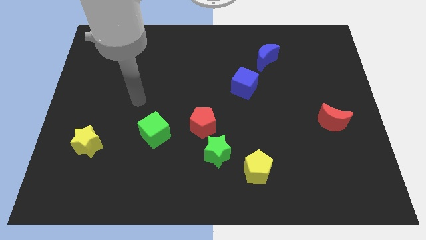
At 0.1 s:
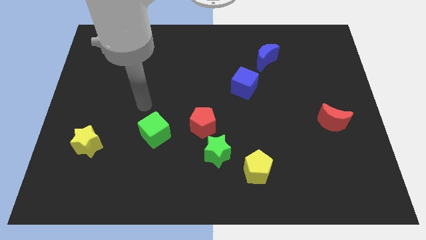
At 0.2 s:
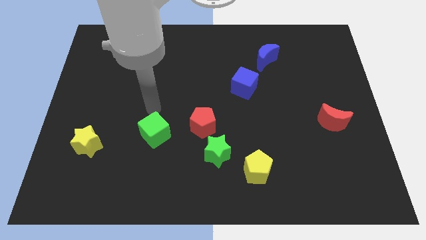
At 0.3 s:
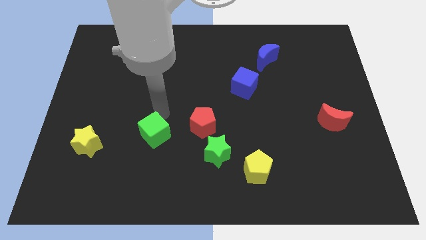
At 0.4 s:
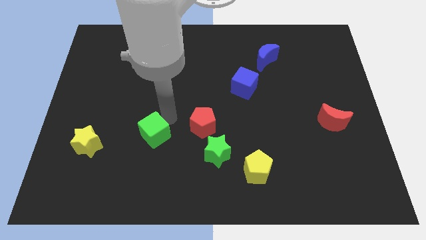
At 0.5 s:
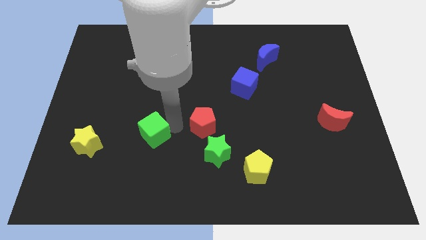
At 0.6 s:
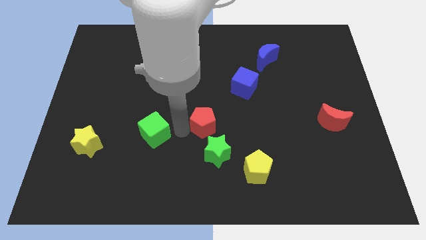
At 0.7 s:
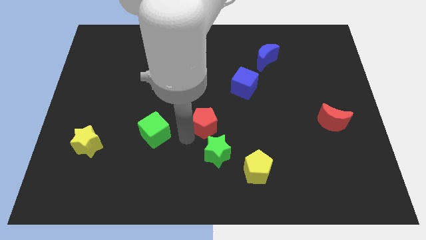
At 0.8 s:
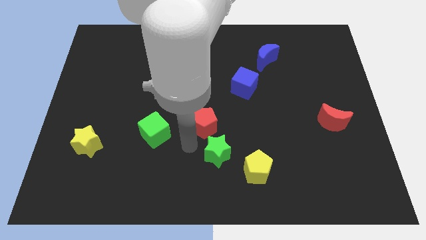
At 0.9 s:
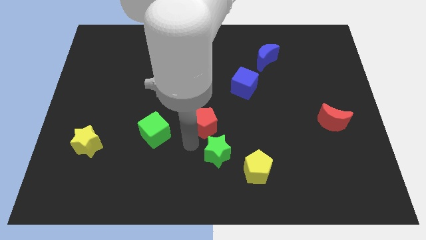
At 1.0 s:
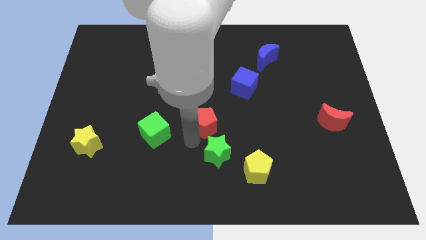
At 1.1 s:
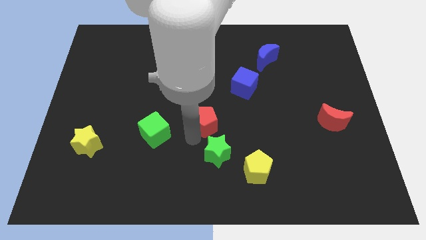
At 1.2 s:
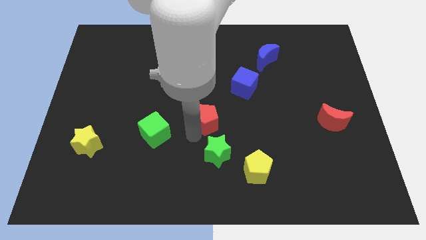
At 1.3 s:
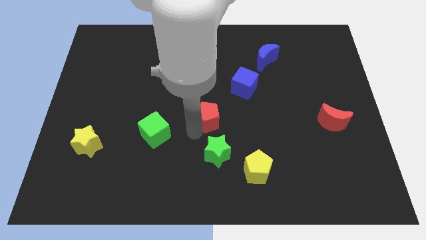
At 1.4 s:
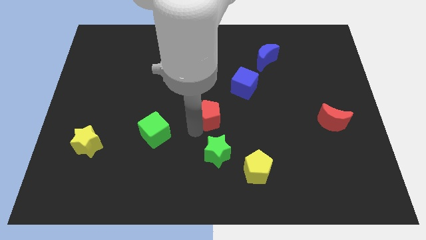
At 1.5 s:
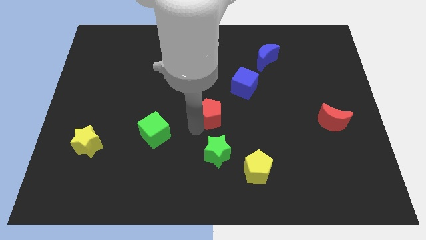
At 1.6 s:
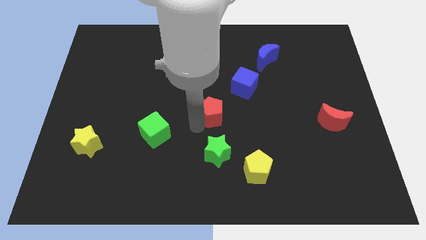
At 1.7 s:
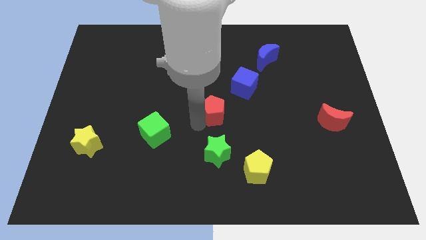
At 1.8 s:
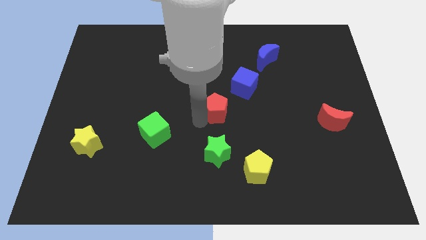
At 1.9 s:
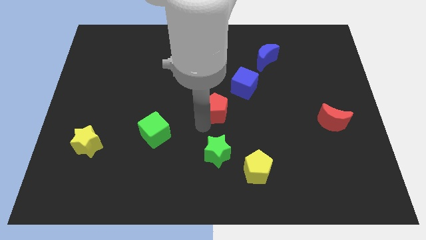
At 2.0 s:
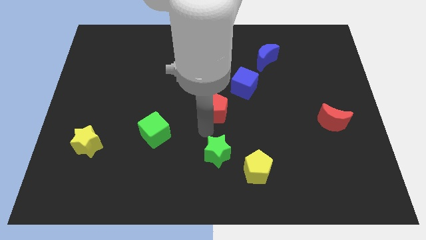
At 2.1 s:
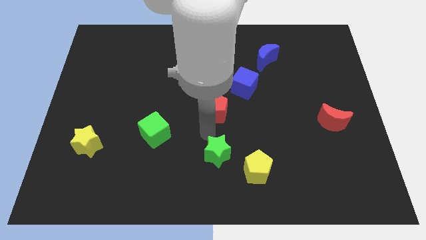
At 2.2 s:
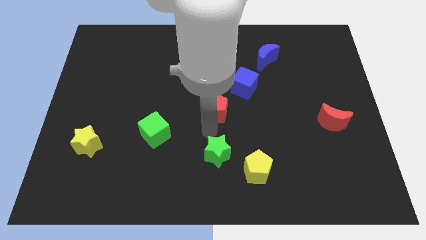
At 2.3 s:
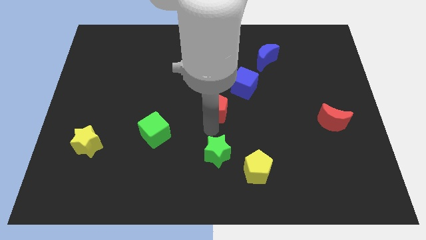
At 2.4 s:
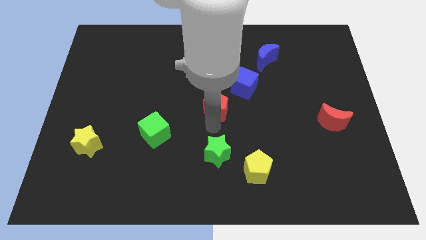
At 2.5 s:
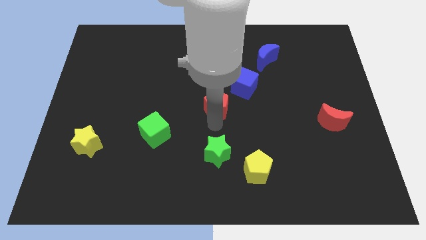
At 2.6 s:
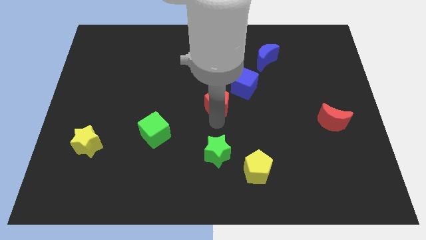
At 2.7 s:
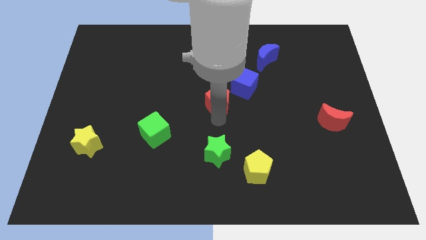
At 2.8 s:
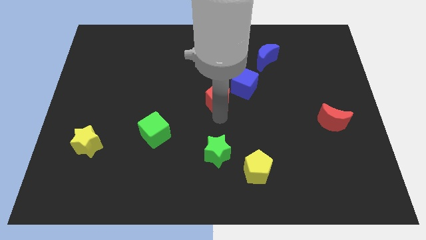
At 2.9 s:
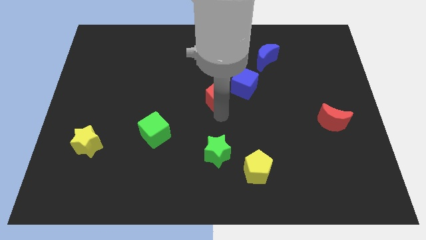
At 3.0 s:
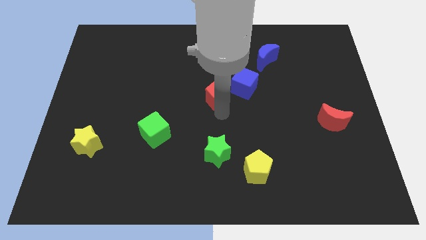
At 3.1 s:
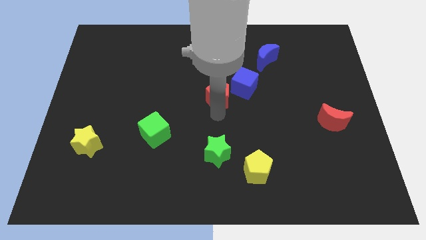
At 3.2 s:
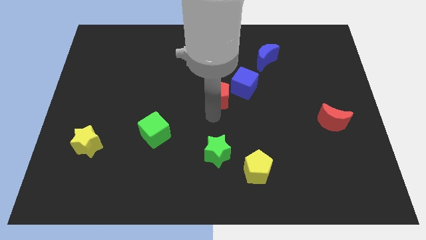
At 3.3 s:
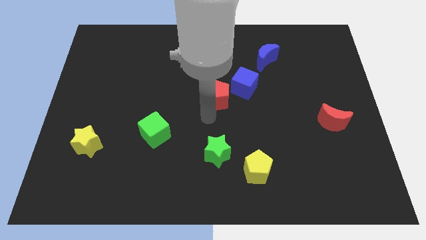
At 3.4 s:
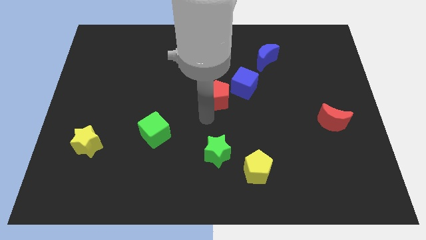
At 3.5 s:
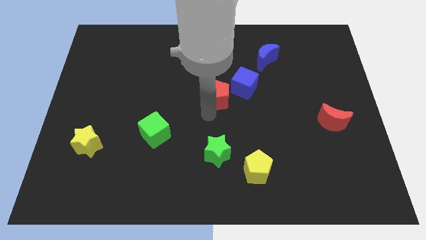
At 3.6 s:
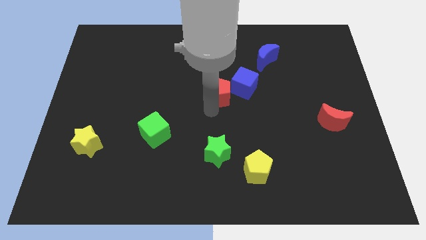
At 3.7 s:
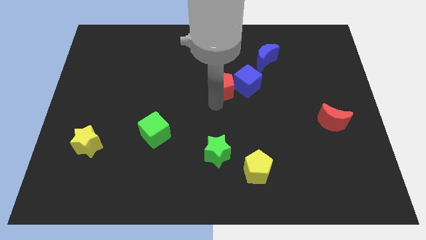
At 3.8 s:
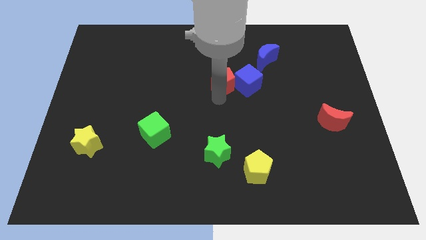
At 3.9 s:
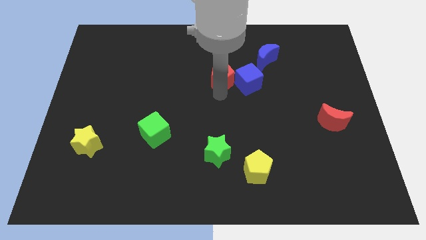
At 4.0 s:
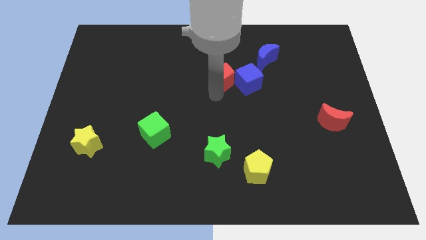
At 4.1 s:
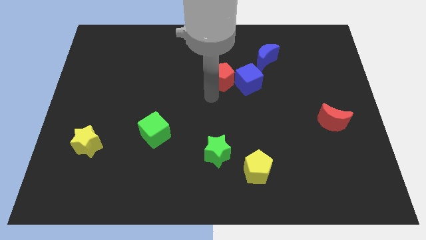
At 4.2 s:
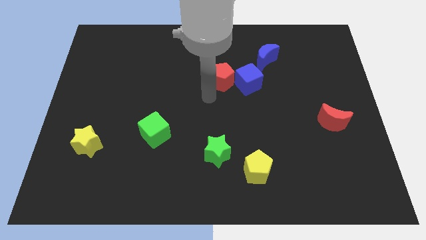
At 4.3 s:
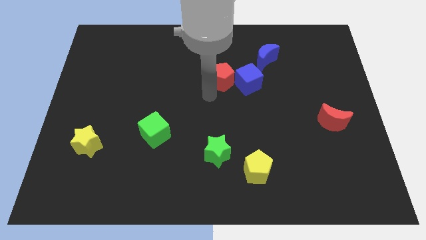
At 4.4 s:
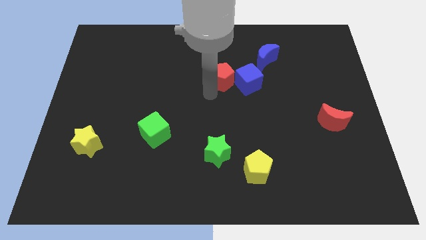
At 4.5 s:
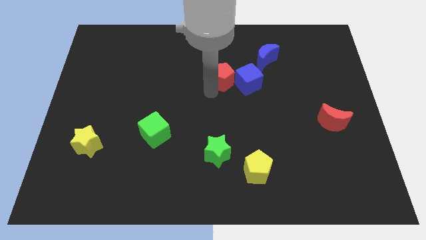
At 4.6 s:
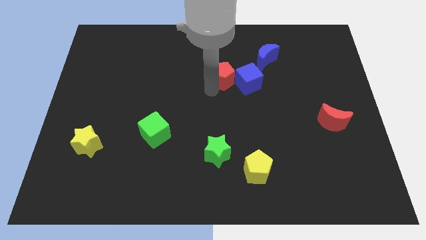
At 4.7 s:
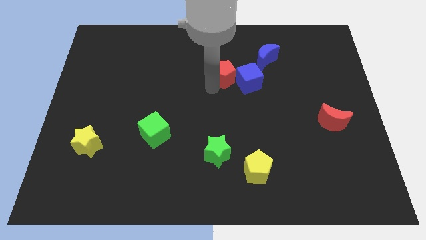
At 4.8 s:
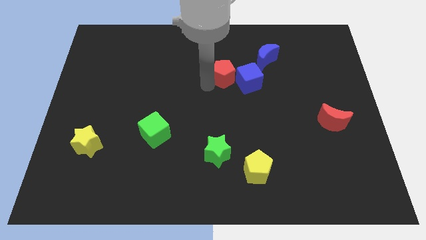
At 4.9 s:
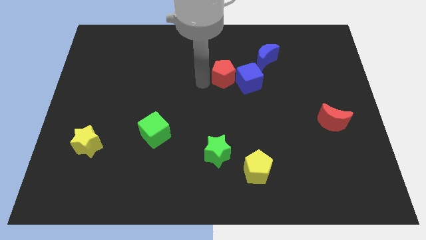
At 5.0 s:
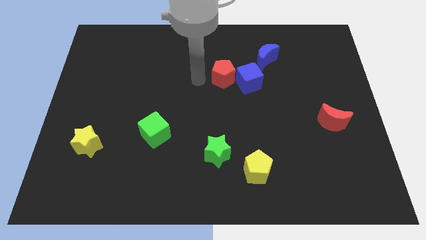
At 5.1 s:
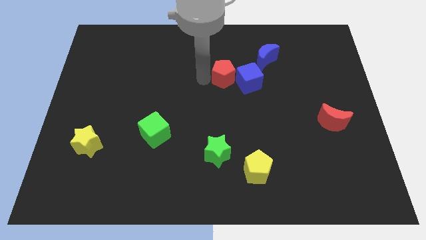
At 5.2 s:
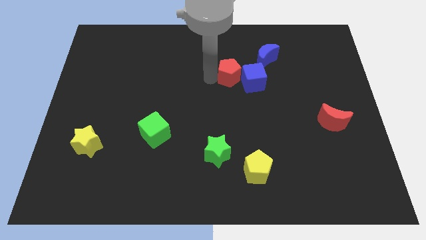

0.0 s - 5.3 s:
put the red pentagon diagonally down and to the left of the blue moon

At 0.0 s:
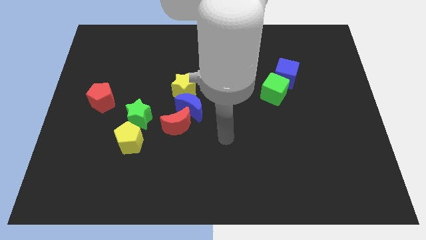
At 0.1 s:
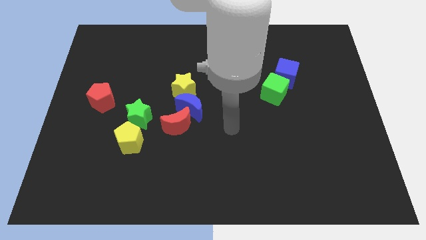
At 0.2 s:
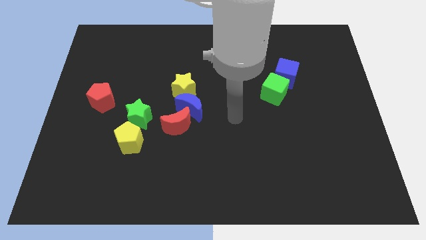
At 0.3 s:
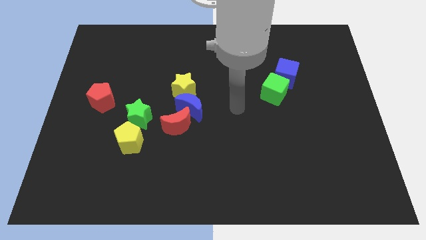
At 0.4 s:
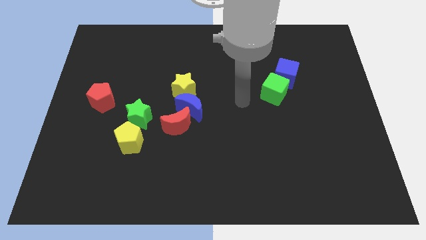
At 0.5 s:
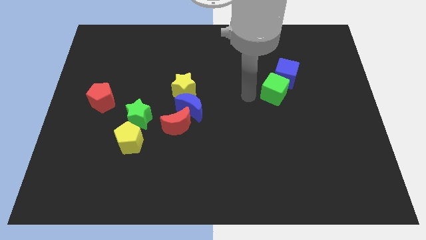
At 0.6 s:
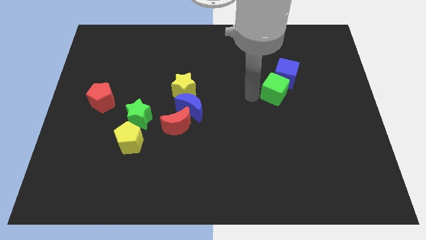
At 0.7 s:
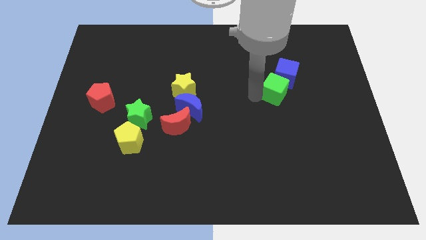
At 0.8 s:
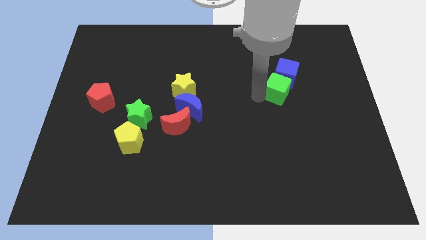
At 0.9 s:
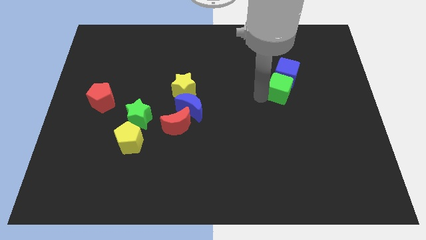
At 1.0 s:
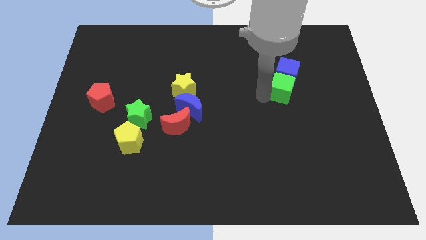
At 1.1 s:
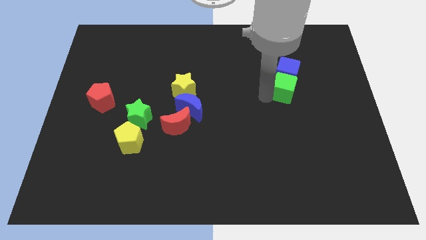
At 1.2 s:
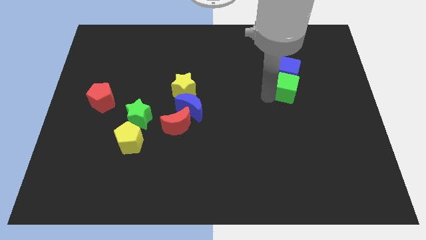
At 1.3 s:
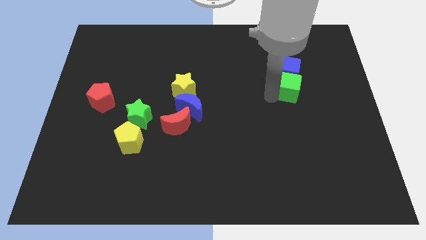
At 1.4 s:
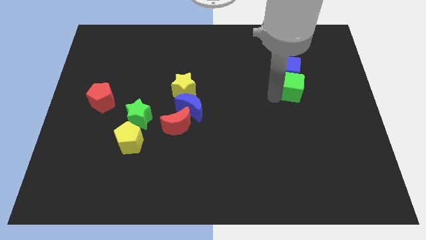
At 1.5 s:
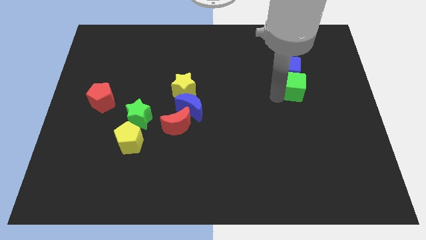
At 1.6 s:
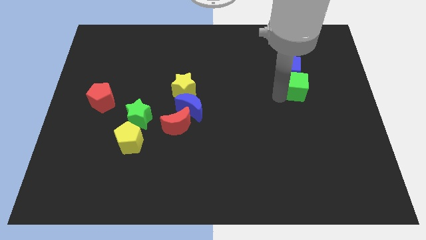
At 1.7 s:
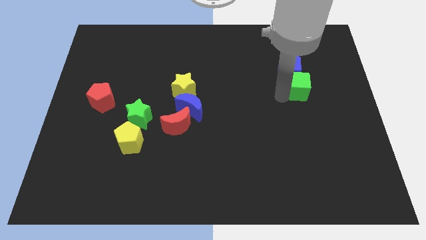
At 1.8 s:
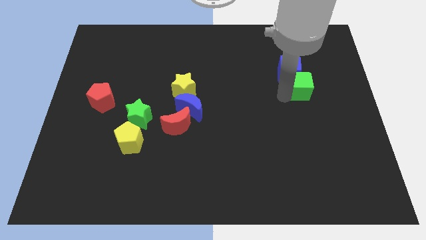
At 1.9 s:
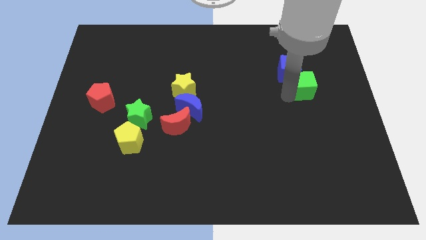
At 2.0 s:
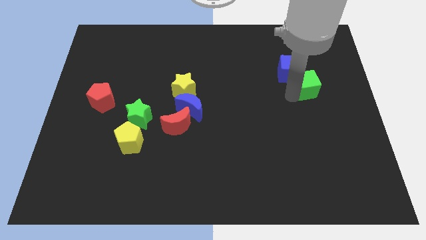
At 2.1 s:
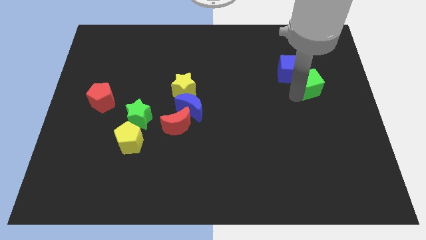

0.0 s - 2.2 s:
slide the green cube just right of the blue cube
